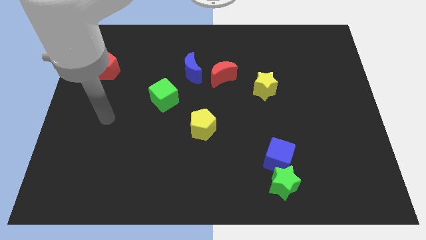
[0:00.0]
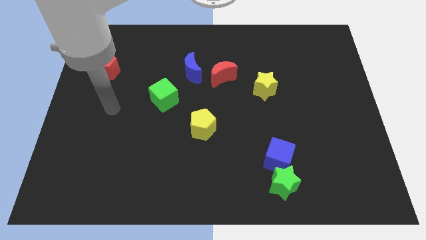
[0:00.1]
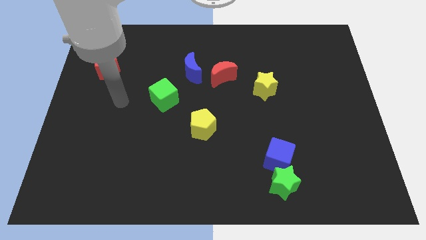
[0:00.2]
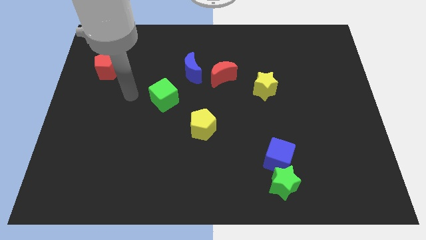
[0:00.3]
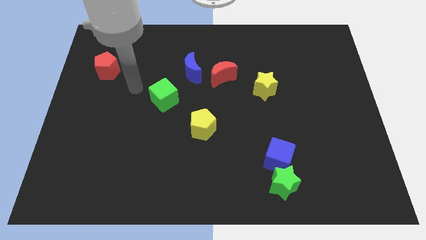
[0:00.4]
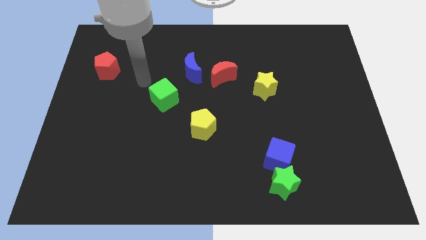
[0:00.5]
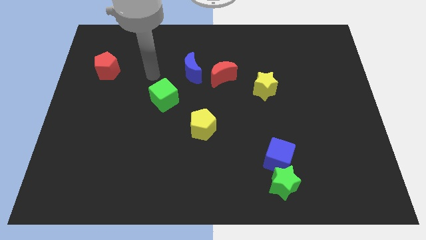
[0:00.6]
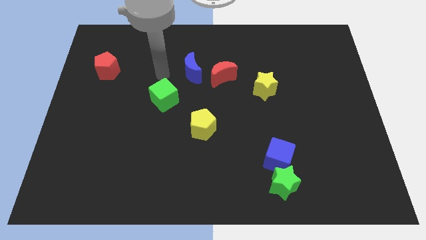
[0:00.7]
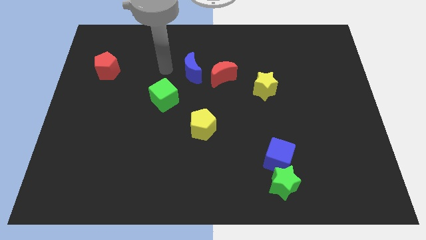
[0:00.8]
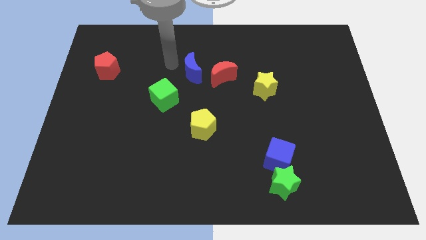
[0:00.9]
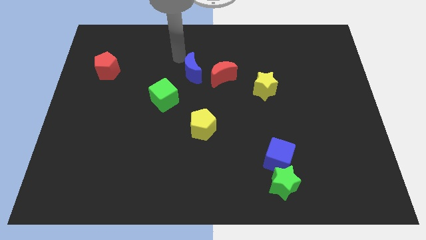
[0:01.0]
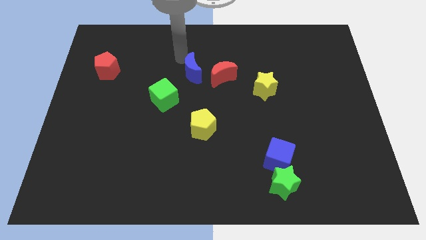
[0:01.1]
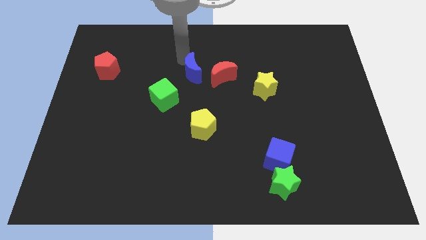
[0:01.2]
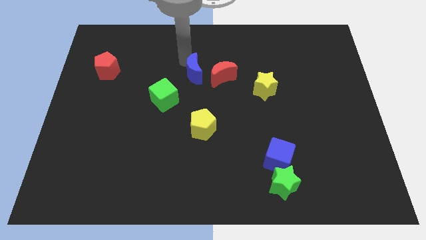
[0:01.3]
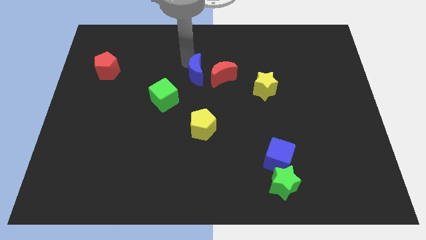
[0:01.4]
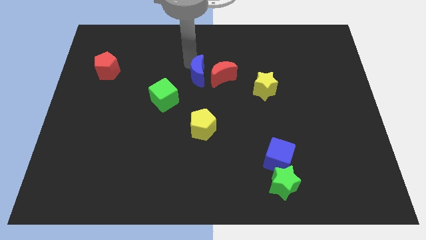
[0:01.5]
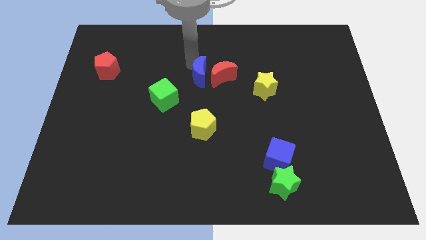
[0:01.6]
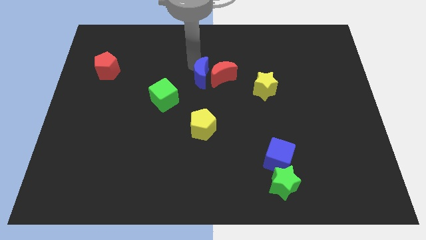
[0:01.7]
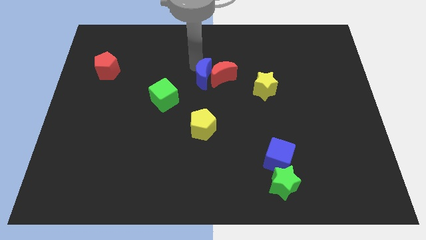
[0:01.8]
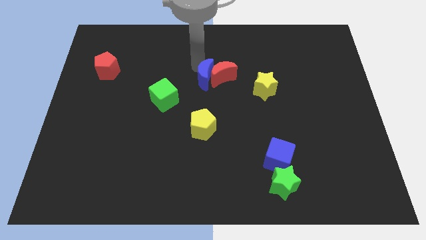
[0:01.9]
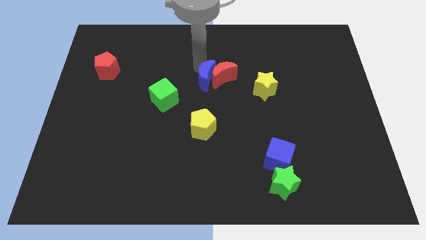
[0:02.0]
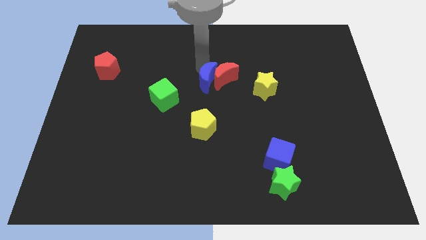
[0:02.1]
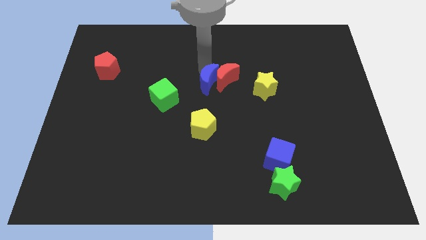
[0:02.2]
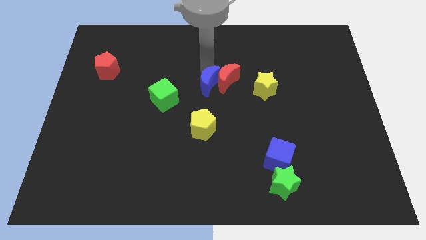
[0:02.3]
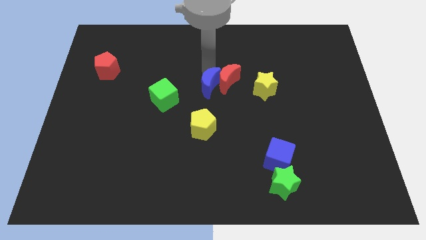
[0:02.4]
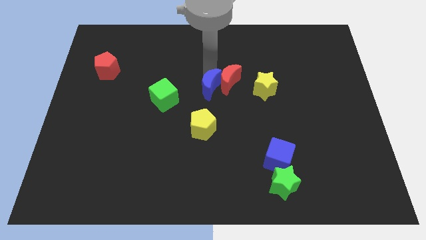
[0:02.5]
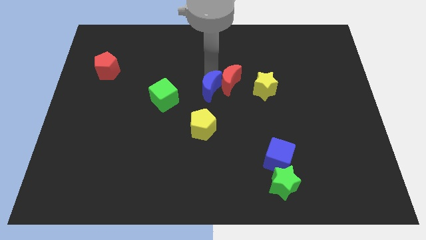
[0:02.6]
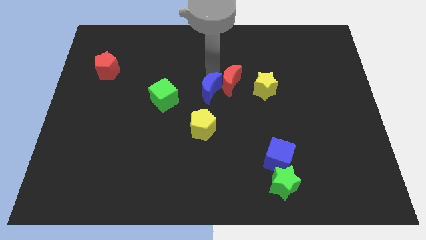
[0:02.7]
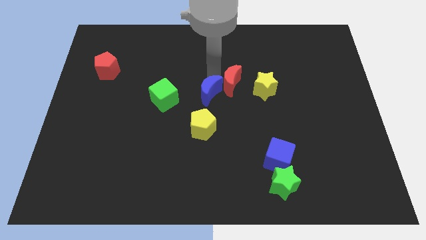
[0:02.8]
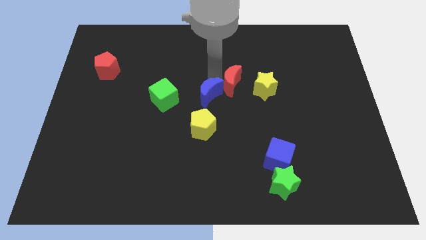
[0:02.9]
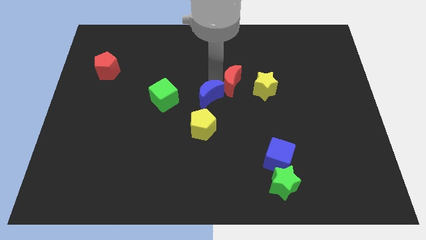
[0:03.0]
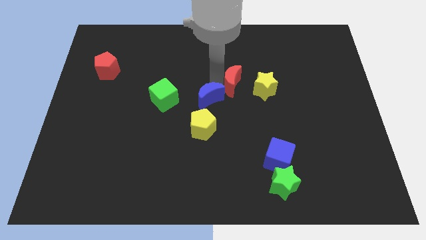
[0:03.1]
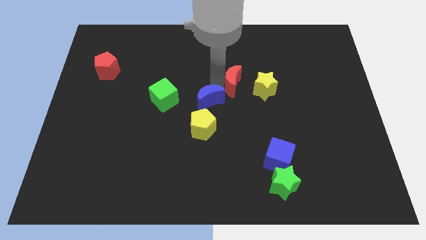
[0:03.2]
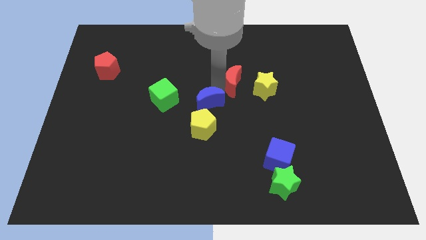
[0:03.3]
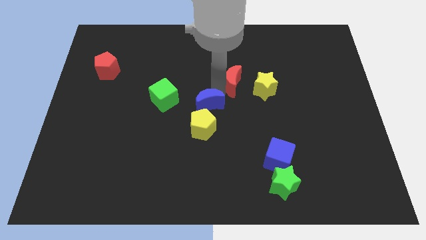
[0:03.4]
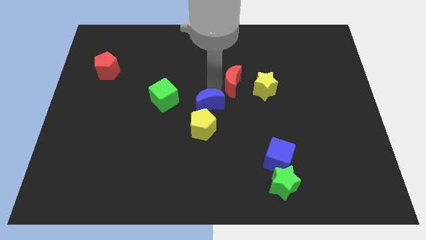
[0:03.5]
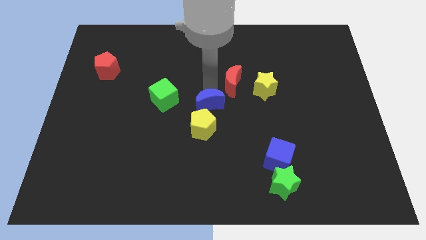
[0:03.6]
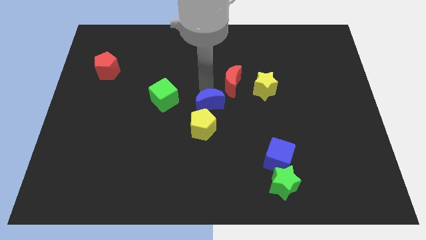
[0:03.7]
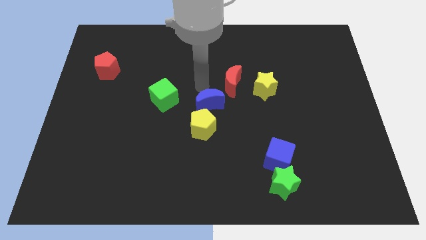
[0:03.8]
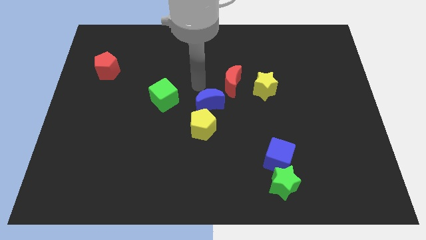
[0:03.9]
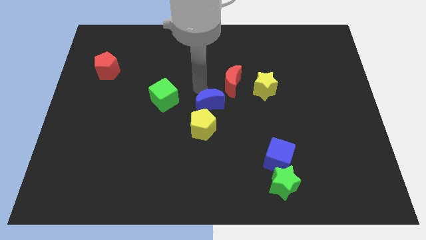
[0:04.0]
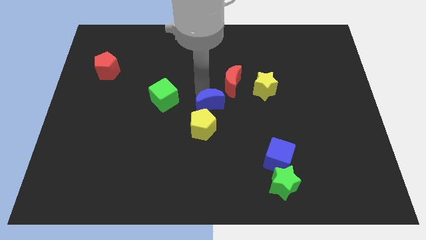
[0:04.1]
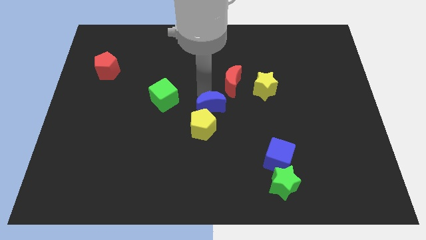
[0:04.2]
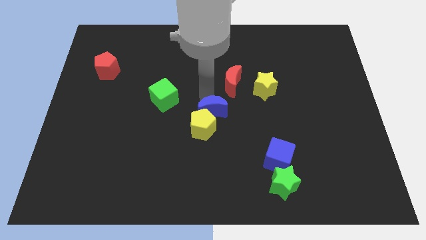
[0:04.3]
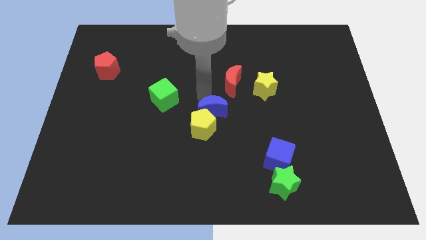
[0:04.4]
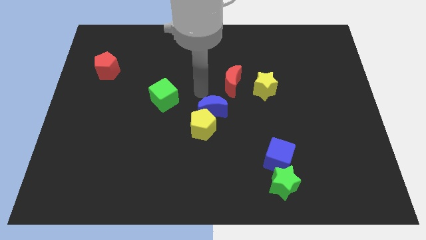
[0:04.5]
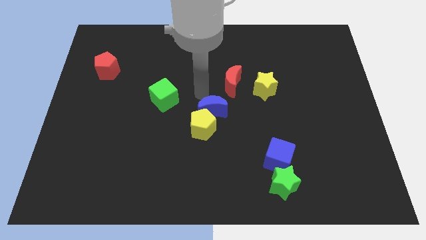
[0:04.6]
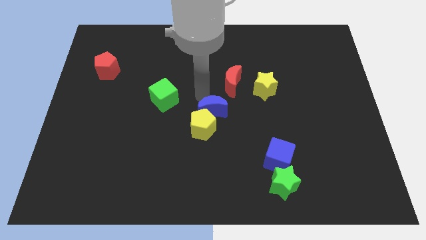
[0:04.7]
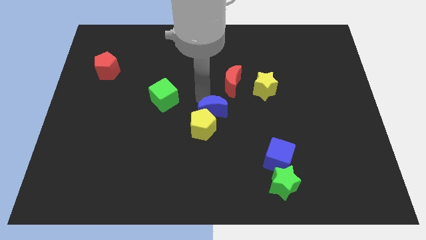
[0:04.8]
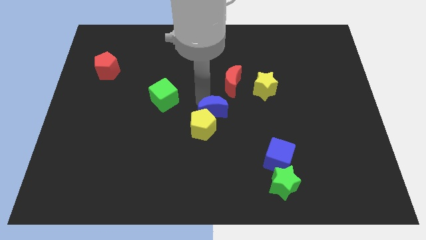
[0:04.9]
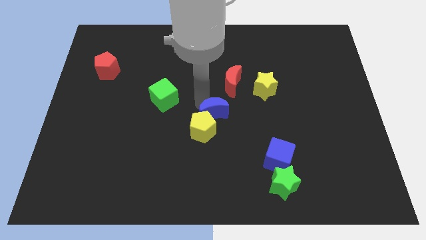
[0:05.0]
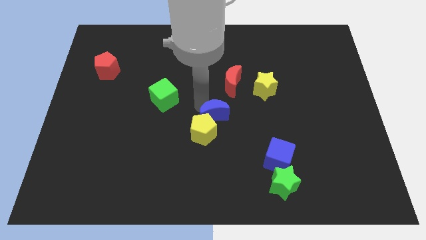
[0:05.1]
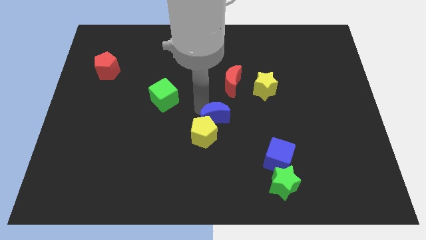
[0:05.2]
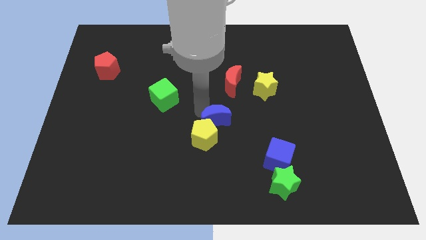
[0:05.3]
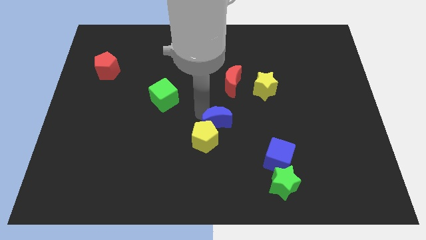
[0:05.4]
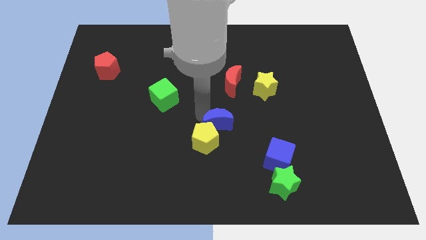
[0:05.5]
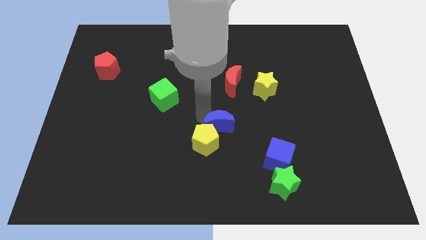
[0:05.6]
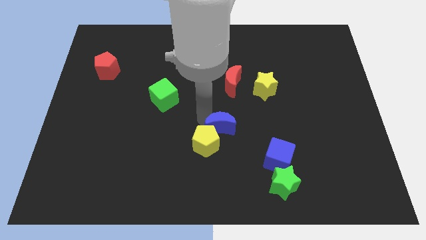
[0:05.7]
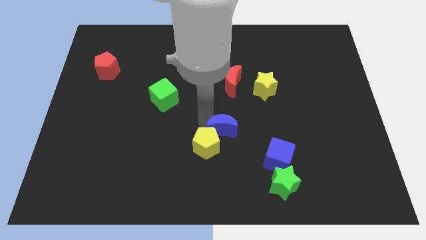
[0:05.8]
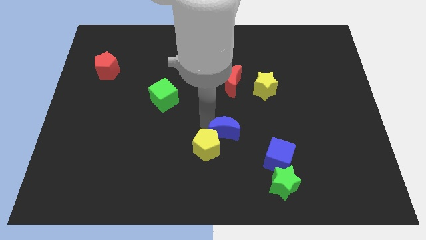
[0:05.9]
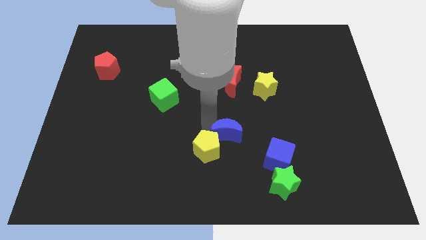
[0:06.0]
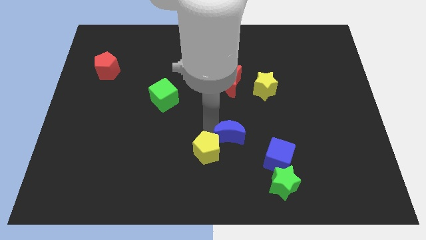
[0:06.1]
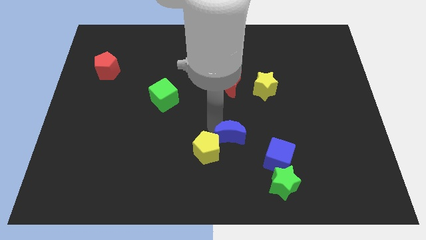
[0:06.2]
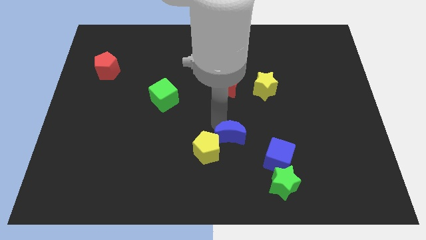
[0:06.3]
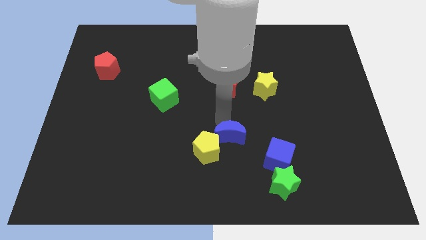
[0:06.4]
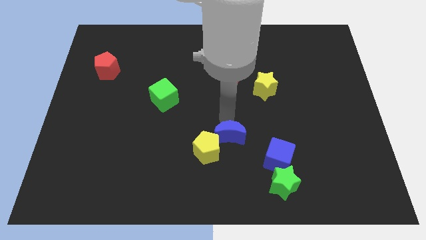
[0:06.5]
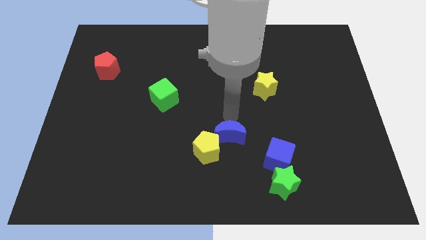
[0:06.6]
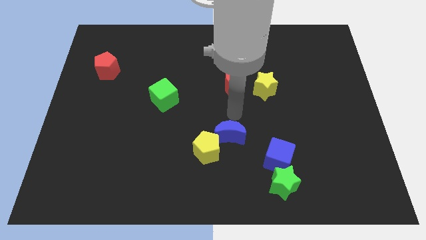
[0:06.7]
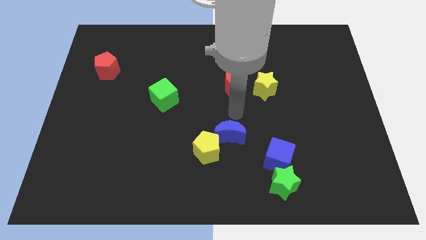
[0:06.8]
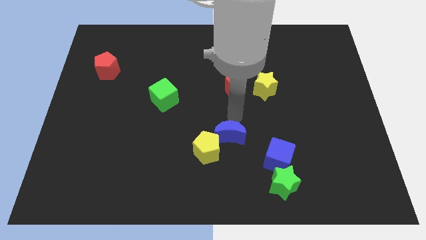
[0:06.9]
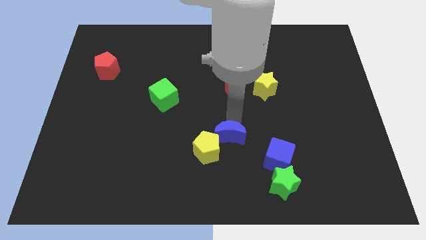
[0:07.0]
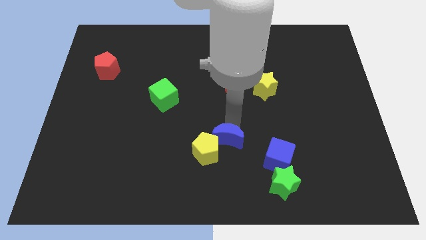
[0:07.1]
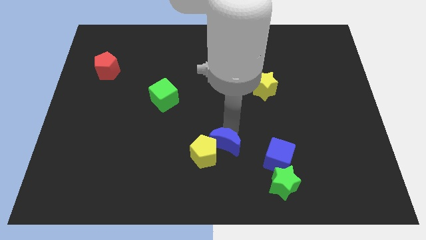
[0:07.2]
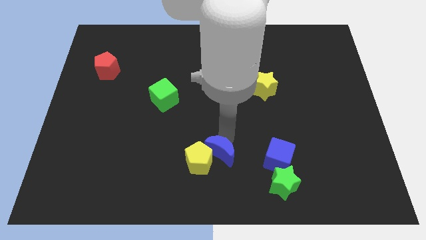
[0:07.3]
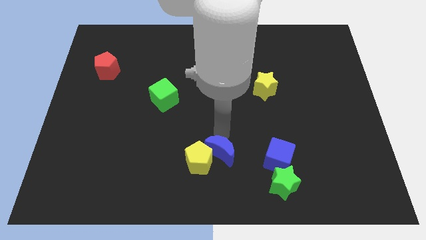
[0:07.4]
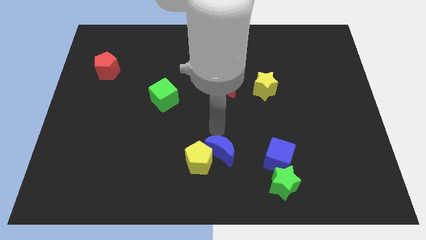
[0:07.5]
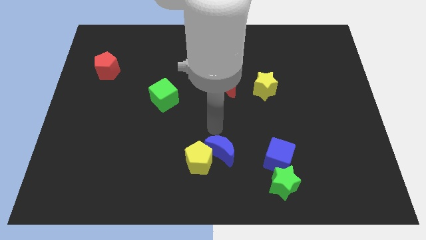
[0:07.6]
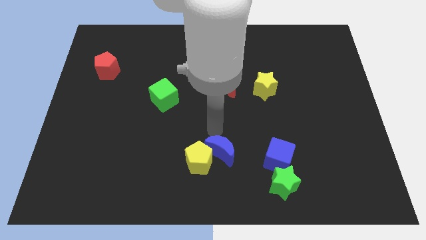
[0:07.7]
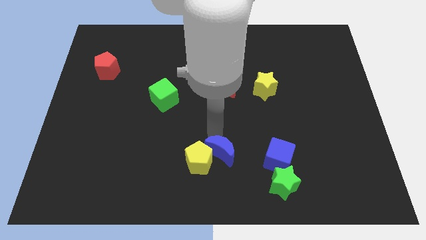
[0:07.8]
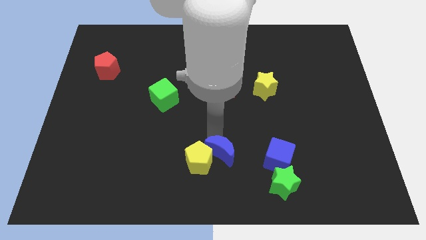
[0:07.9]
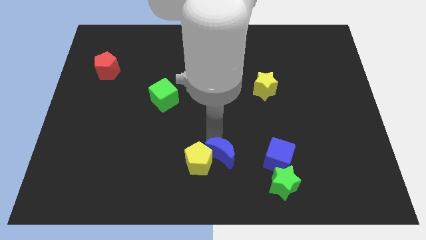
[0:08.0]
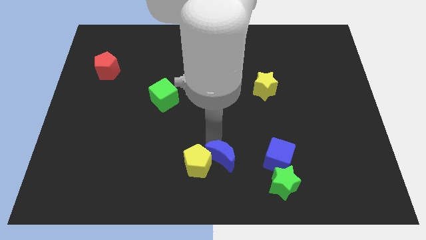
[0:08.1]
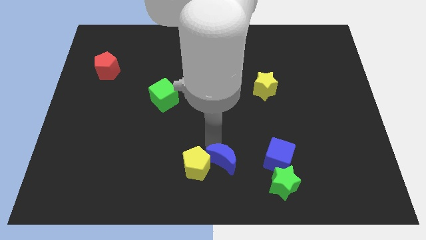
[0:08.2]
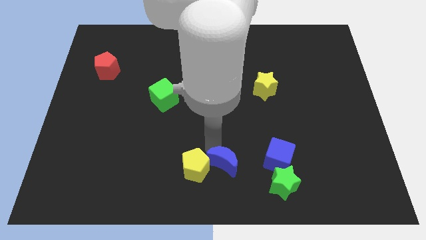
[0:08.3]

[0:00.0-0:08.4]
slide the blue moon left of the green star
